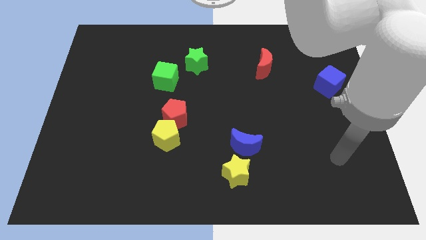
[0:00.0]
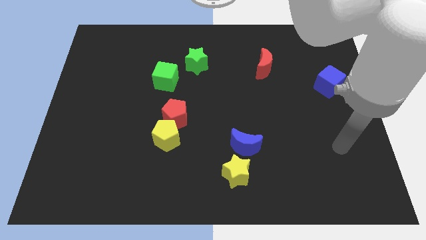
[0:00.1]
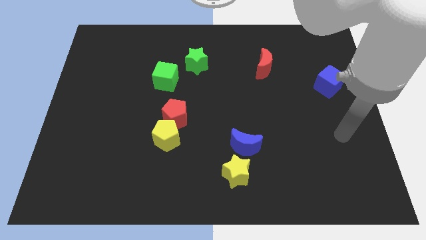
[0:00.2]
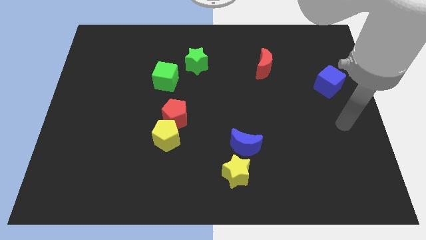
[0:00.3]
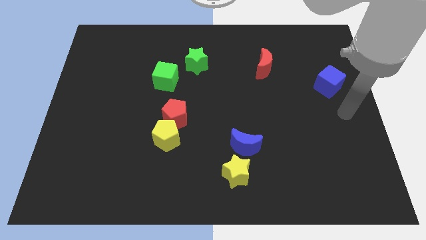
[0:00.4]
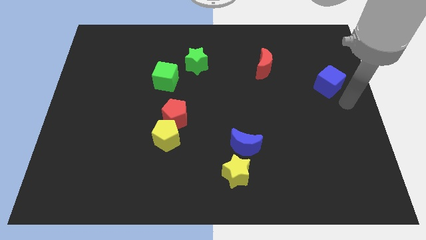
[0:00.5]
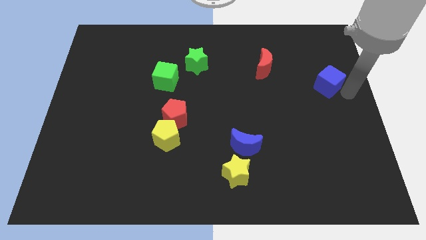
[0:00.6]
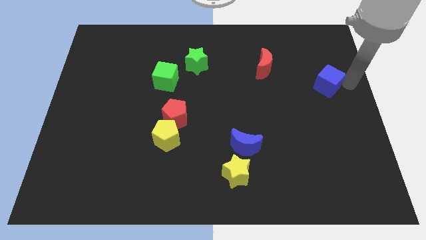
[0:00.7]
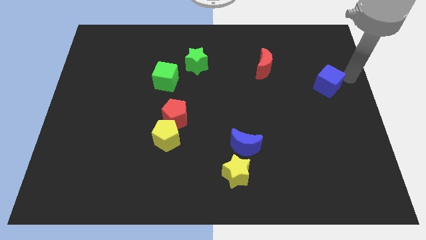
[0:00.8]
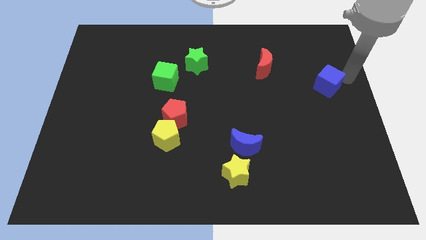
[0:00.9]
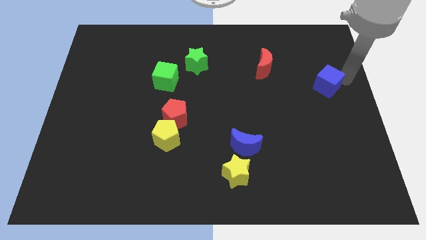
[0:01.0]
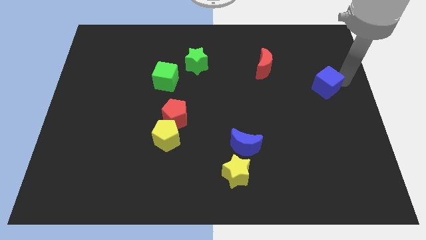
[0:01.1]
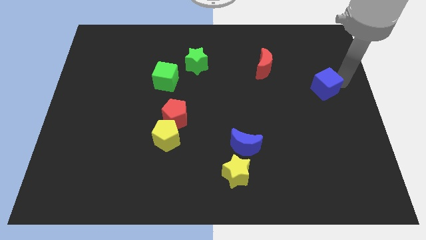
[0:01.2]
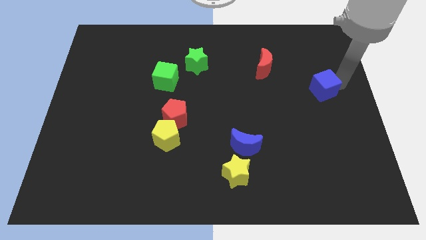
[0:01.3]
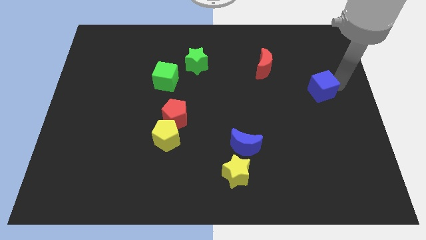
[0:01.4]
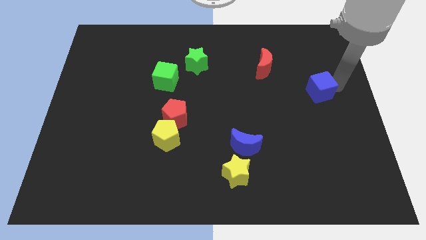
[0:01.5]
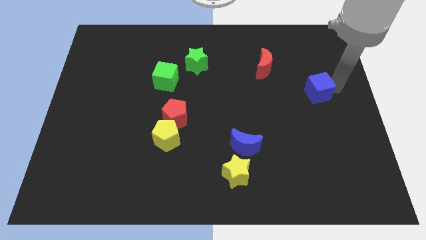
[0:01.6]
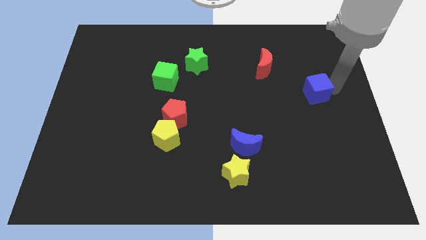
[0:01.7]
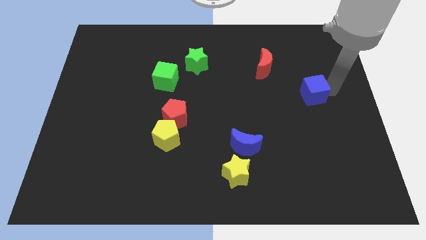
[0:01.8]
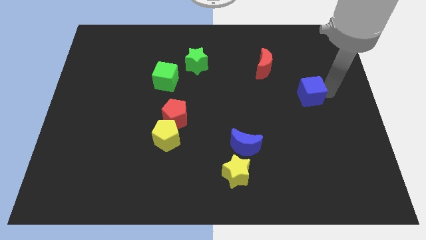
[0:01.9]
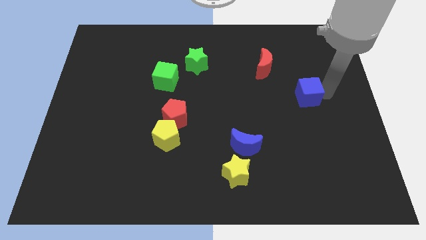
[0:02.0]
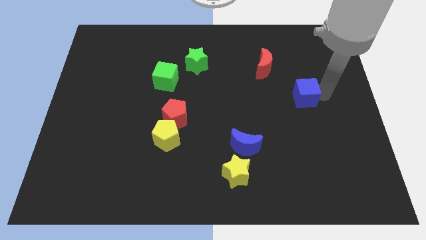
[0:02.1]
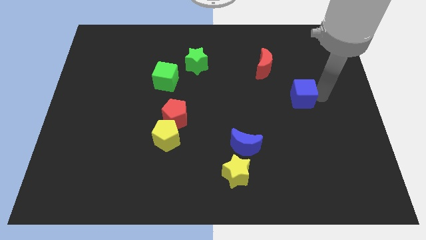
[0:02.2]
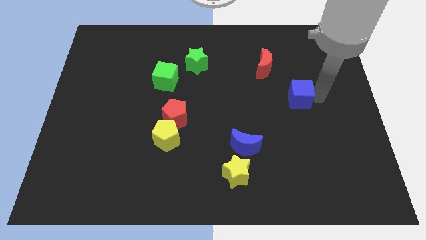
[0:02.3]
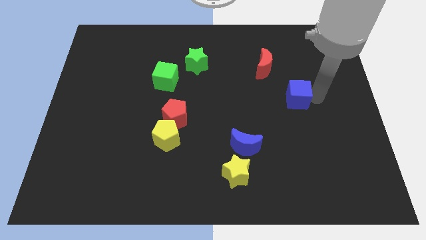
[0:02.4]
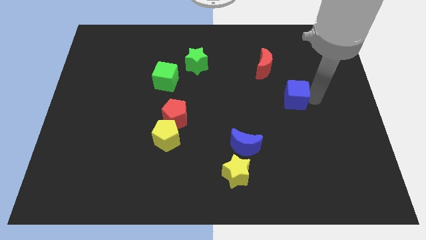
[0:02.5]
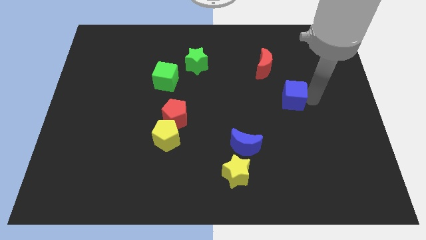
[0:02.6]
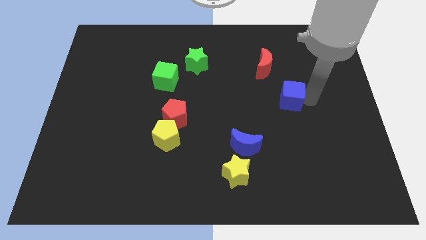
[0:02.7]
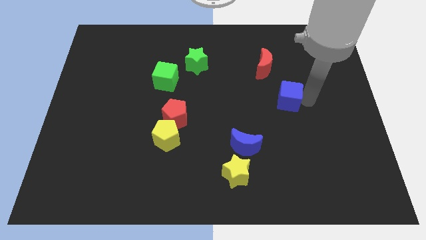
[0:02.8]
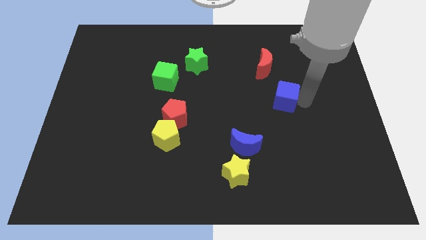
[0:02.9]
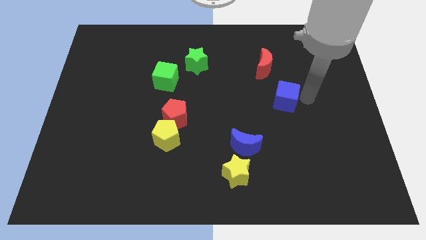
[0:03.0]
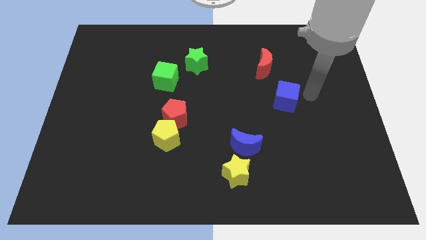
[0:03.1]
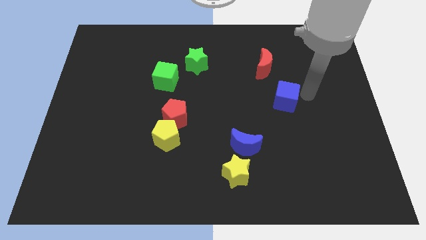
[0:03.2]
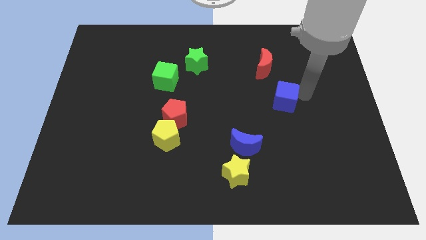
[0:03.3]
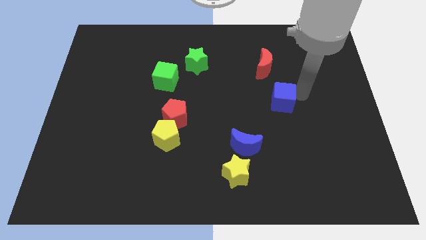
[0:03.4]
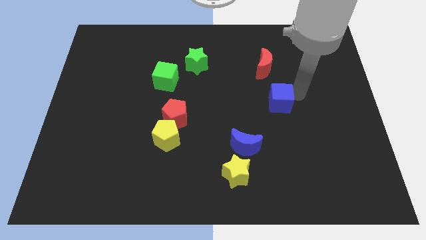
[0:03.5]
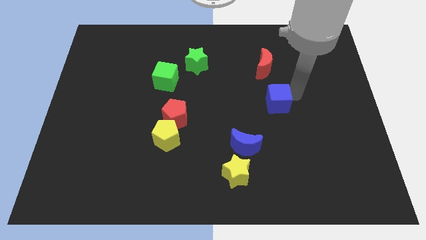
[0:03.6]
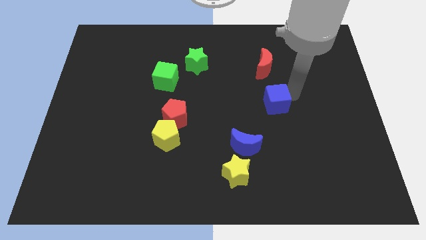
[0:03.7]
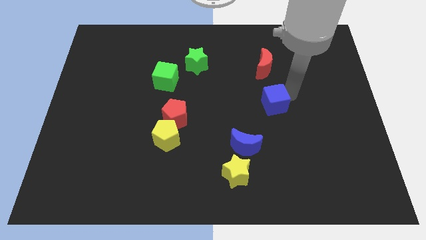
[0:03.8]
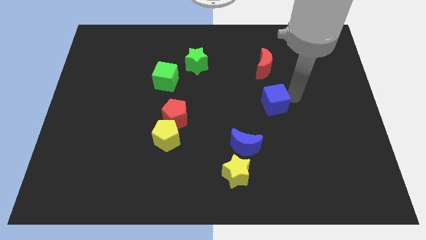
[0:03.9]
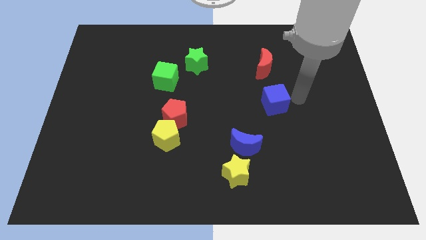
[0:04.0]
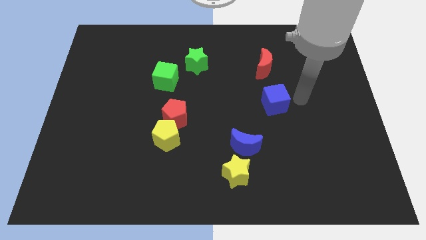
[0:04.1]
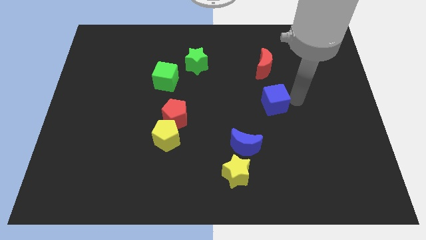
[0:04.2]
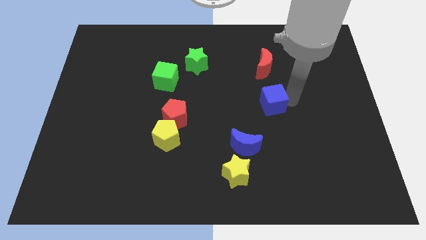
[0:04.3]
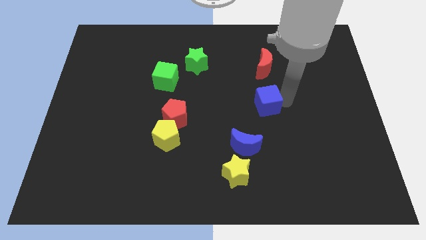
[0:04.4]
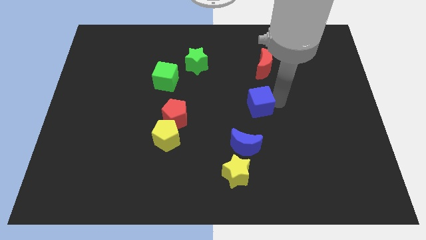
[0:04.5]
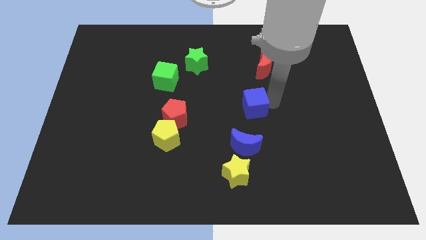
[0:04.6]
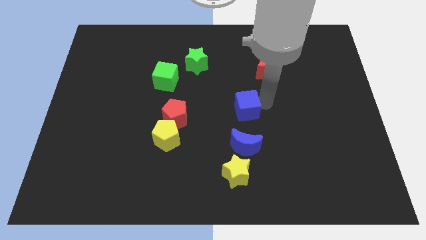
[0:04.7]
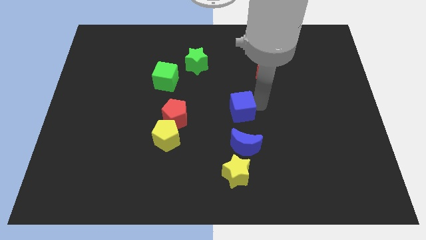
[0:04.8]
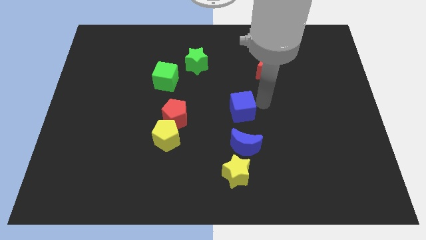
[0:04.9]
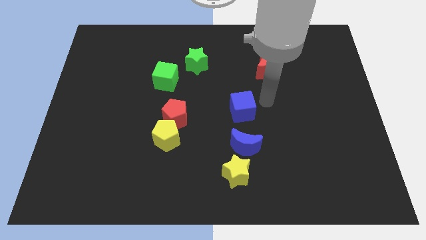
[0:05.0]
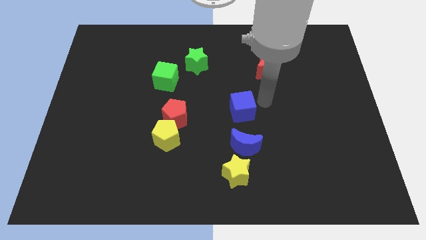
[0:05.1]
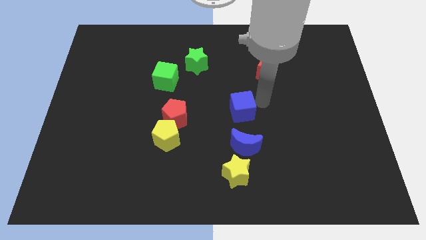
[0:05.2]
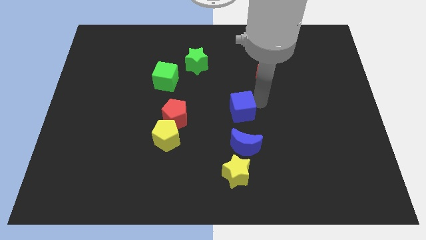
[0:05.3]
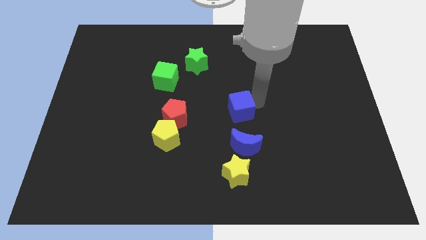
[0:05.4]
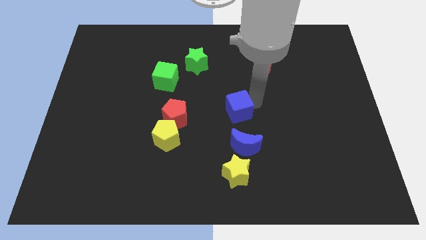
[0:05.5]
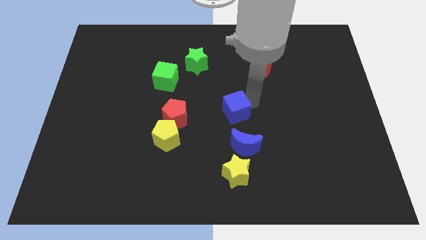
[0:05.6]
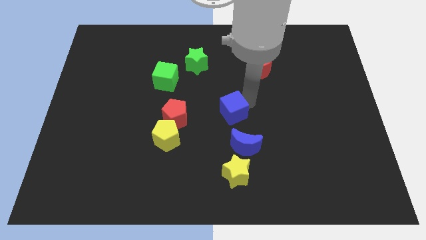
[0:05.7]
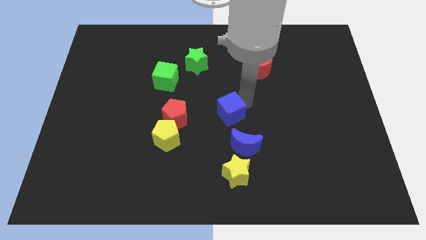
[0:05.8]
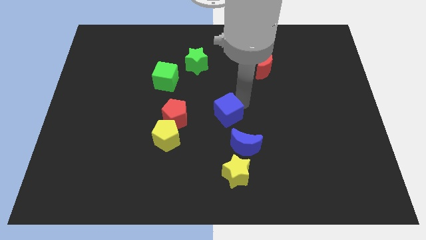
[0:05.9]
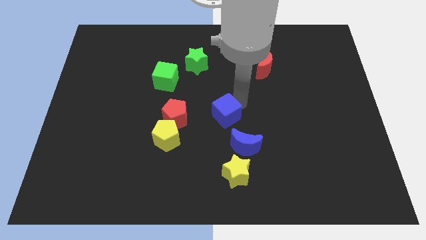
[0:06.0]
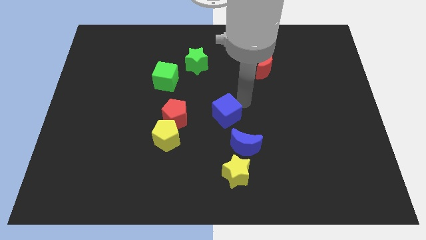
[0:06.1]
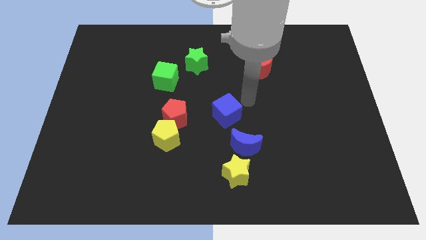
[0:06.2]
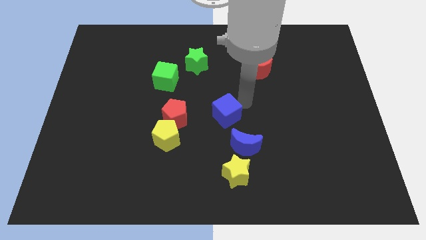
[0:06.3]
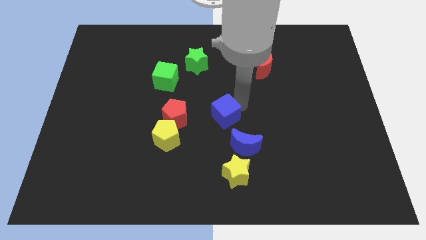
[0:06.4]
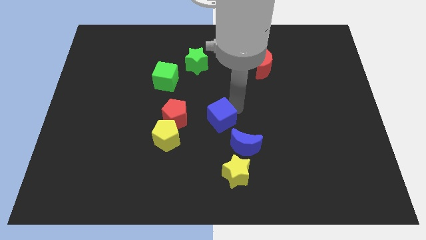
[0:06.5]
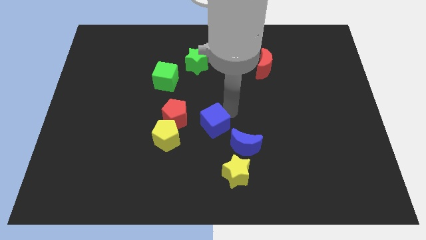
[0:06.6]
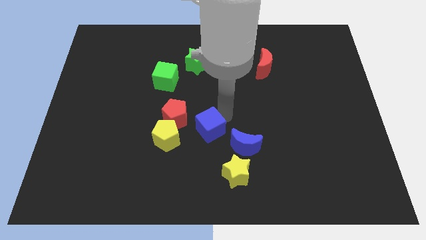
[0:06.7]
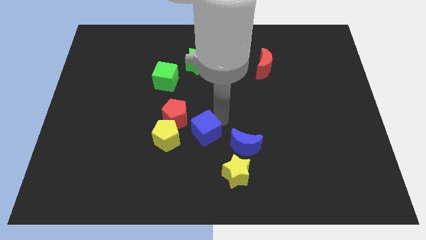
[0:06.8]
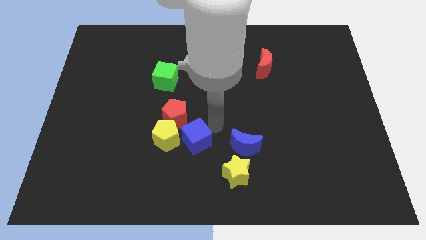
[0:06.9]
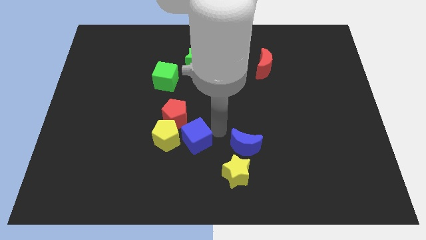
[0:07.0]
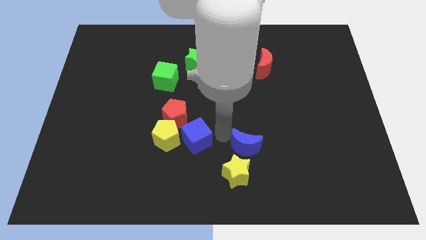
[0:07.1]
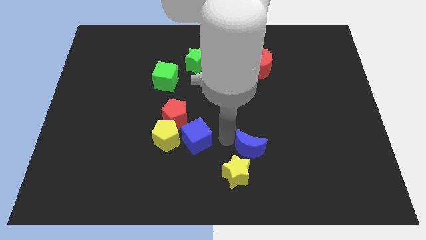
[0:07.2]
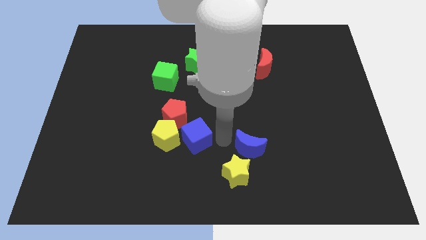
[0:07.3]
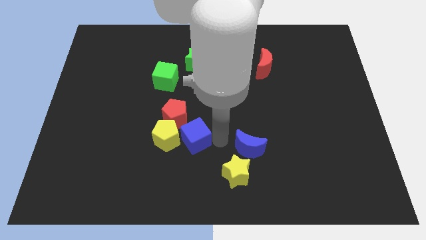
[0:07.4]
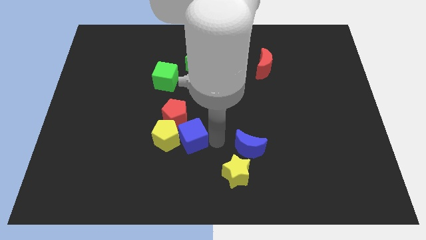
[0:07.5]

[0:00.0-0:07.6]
push the blue cube next to the yellow pentagon
